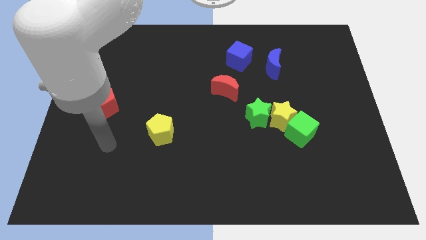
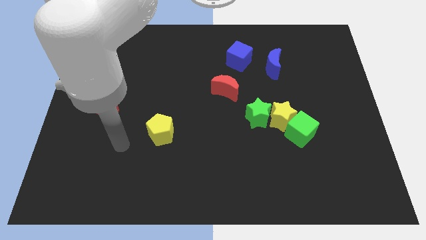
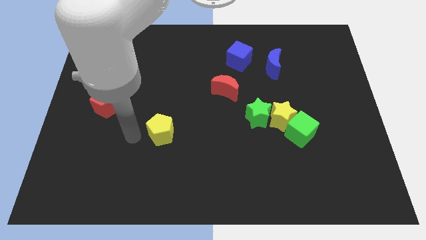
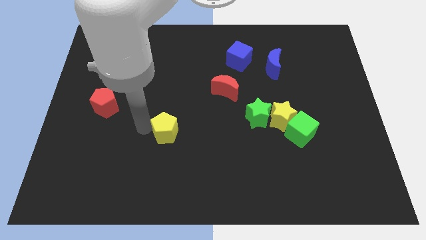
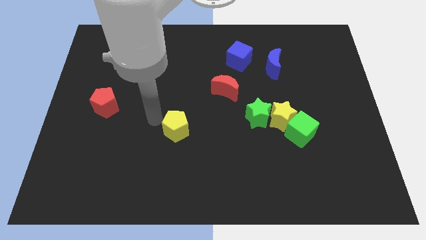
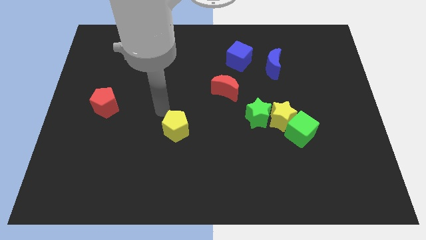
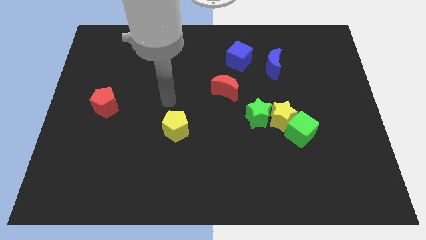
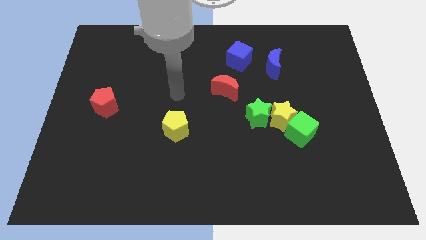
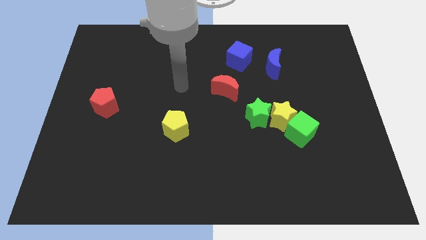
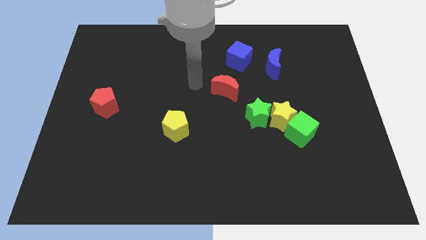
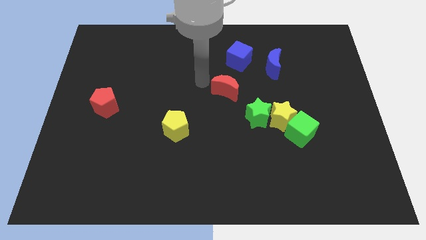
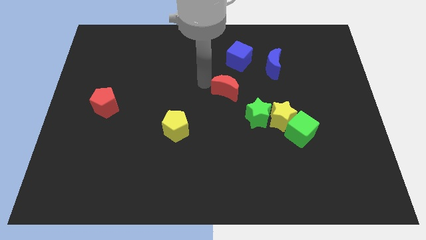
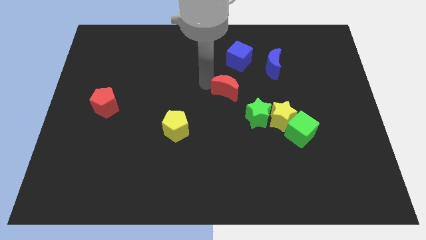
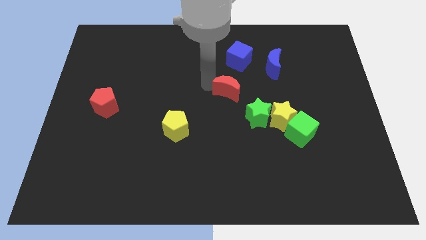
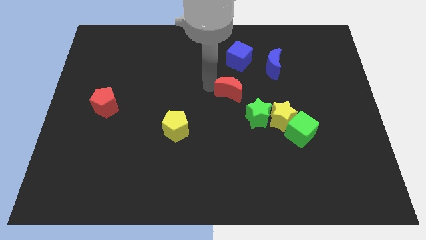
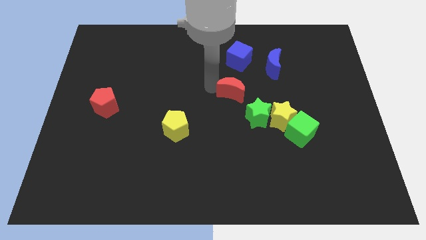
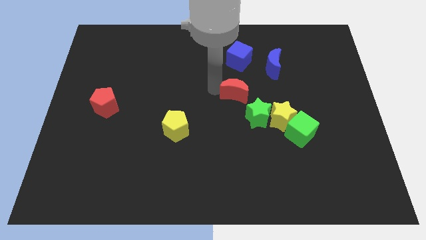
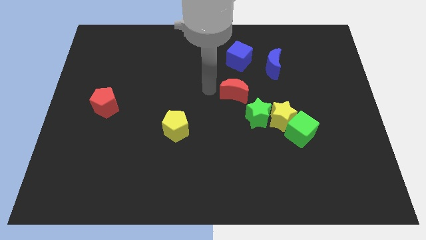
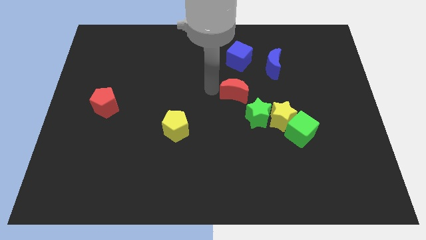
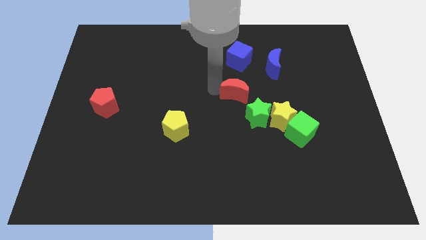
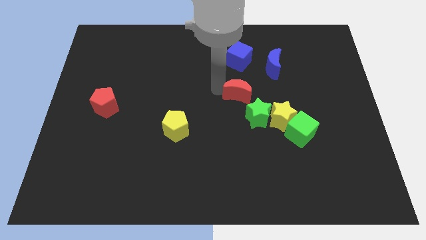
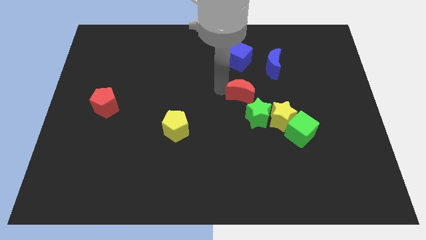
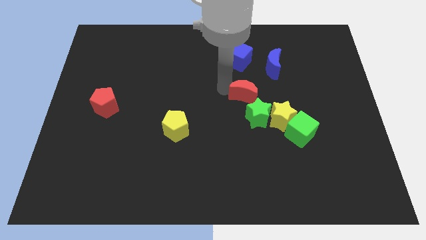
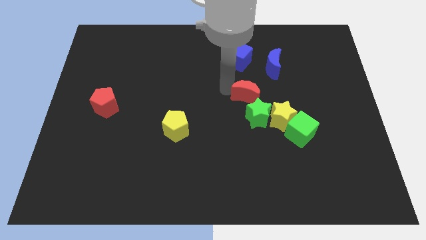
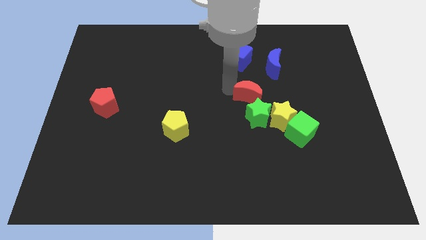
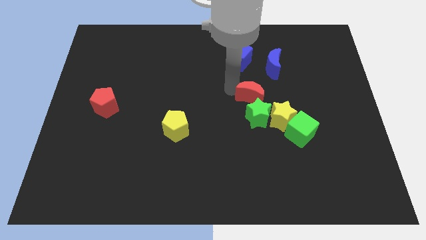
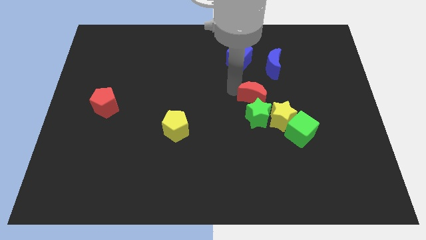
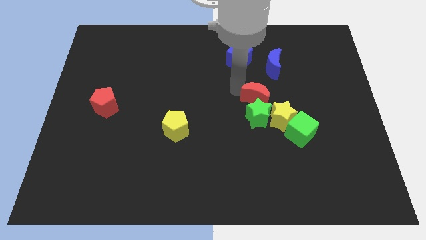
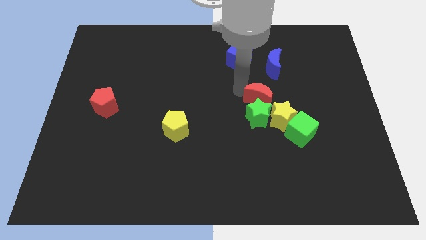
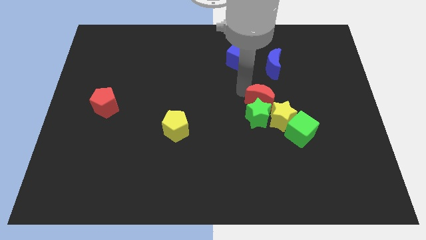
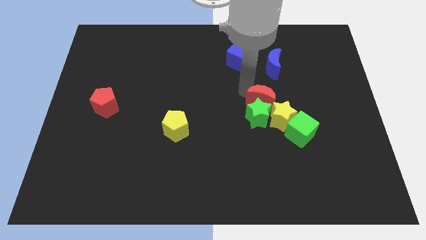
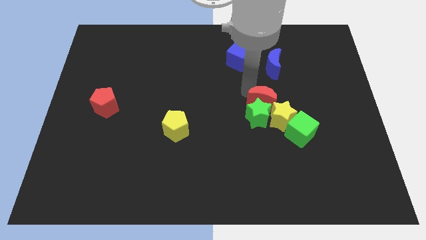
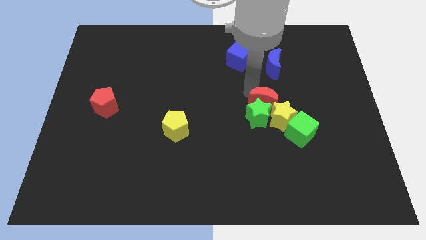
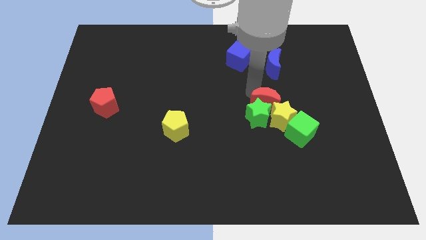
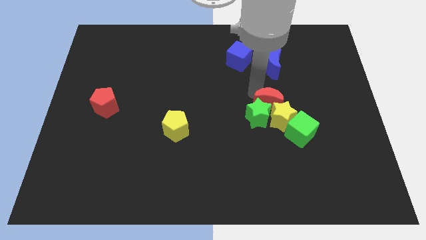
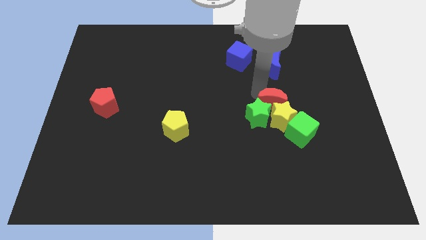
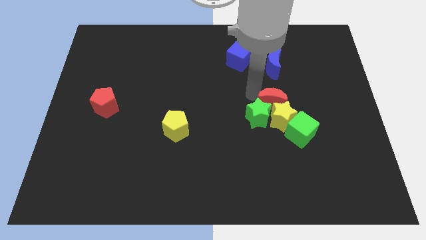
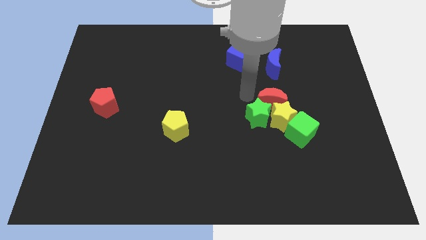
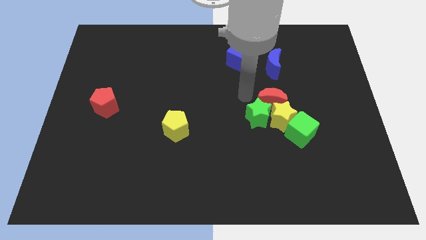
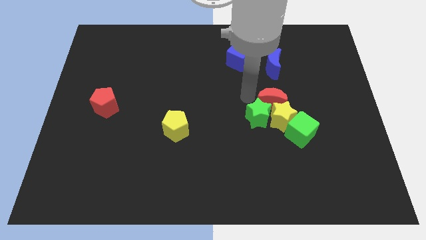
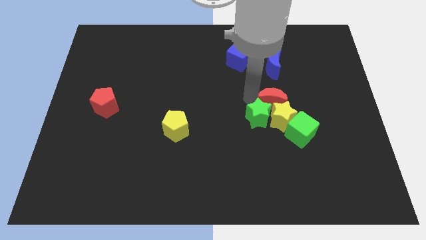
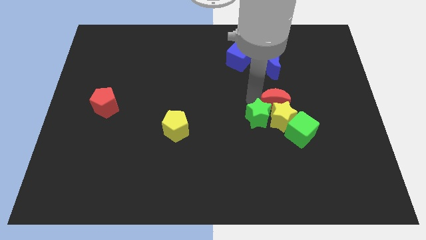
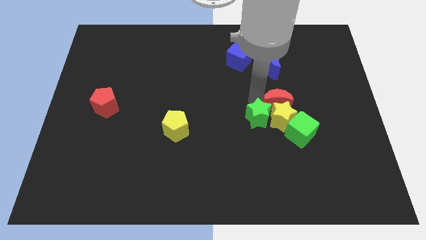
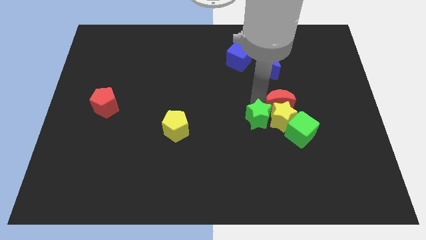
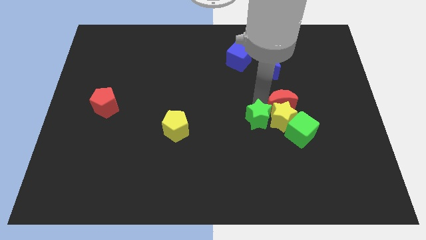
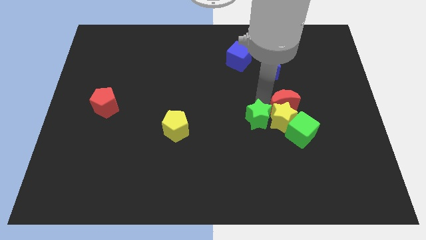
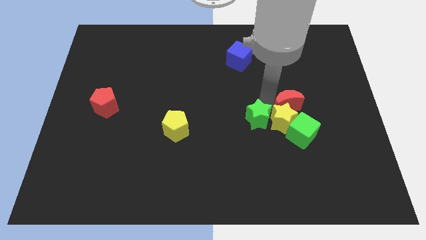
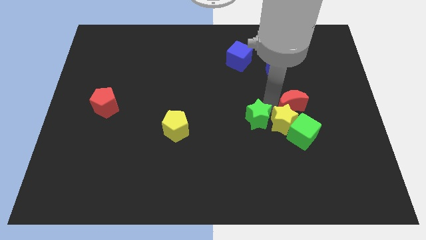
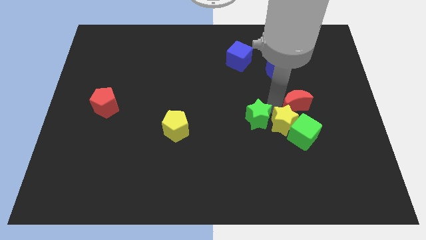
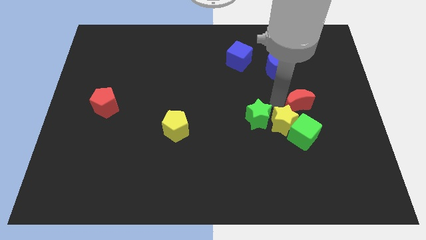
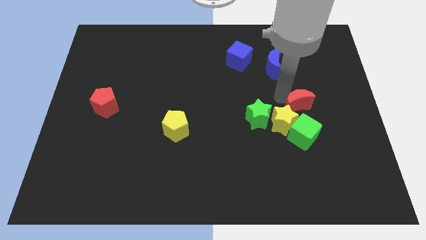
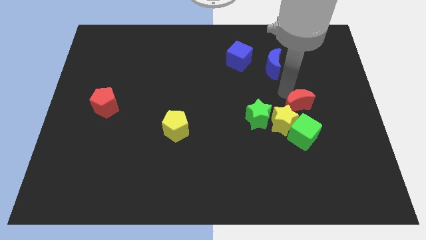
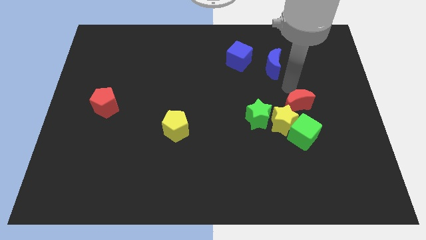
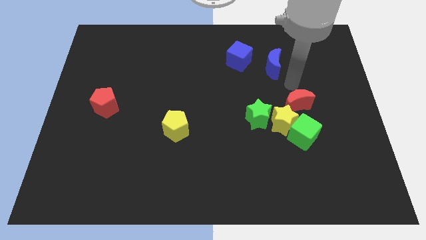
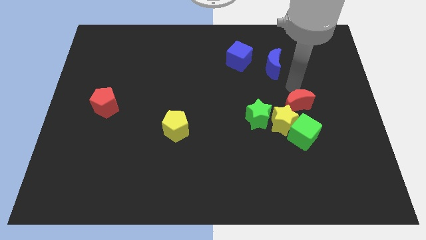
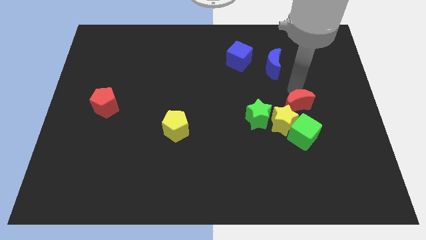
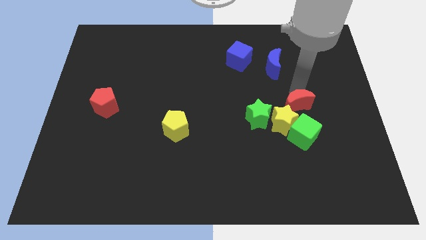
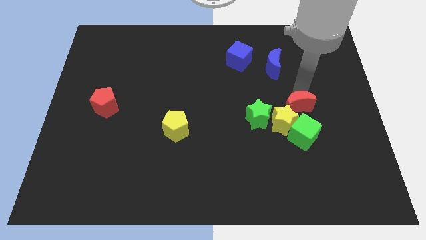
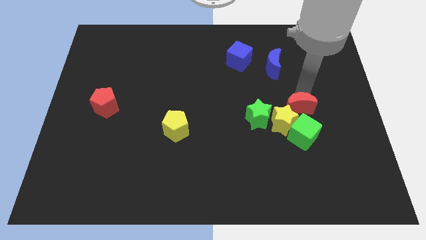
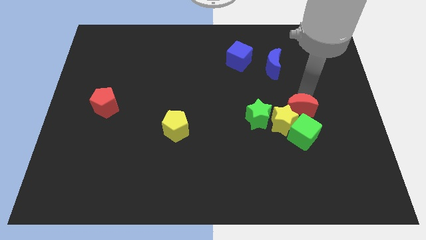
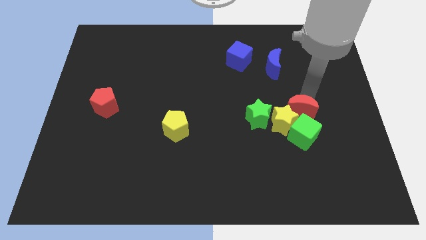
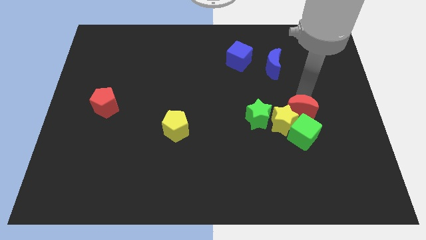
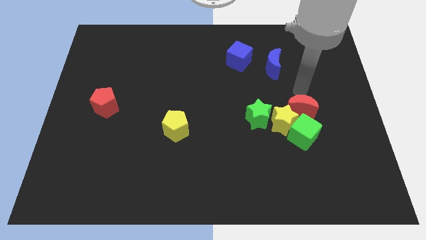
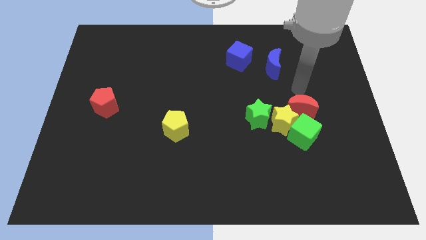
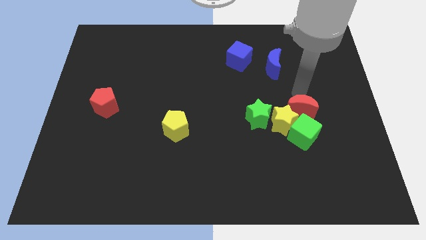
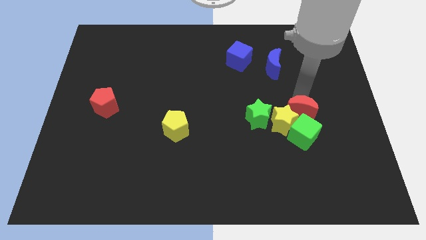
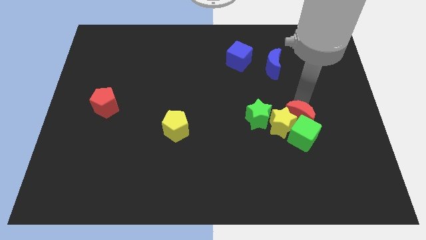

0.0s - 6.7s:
move the red moon next to the green cube

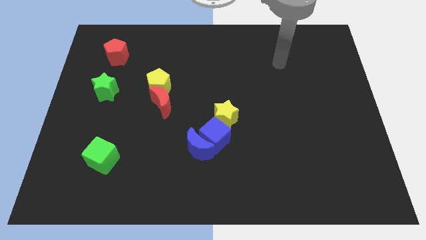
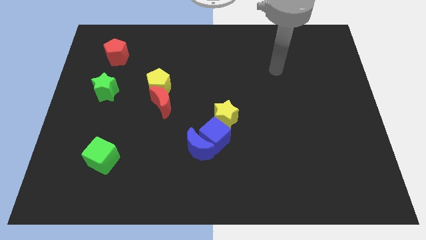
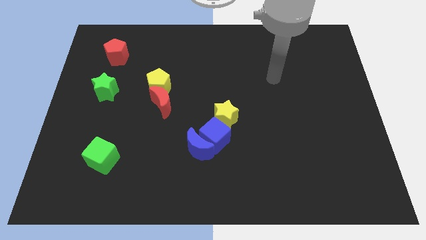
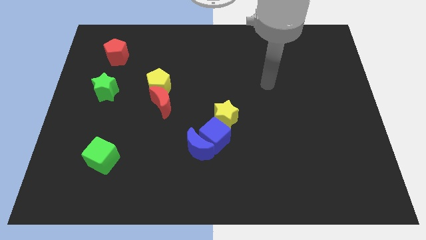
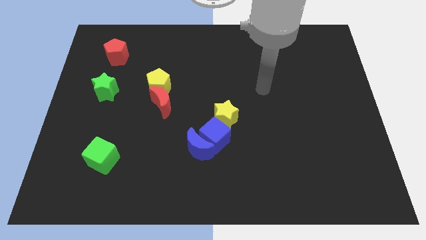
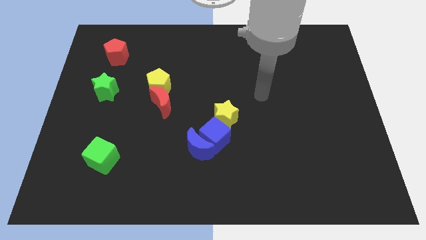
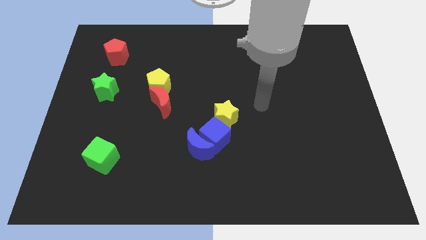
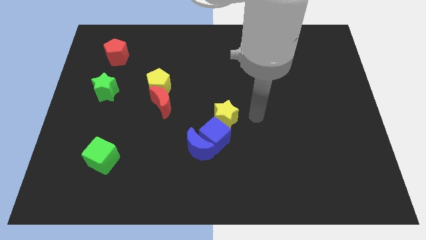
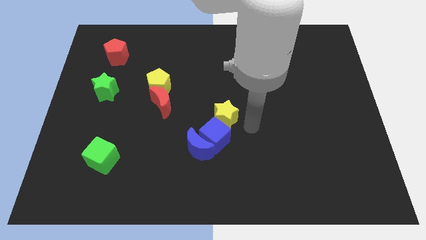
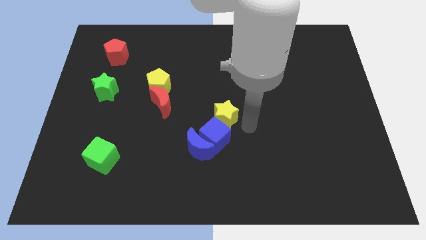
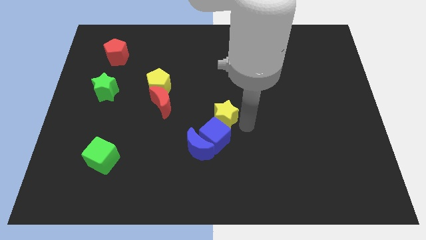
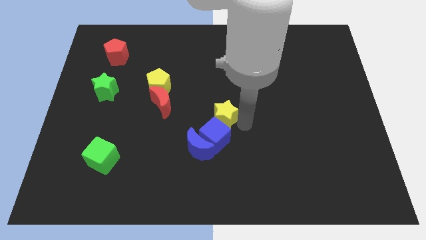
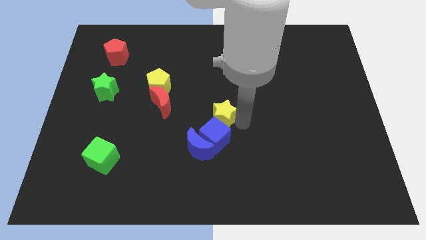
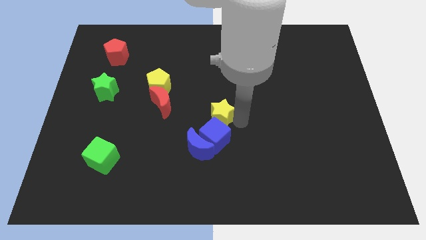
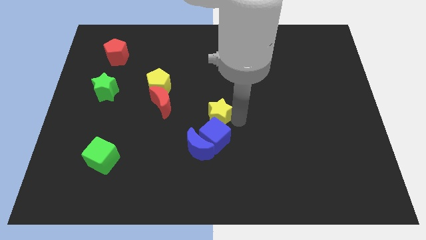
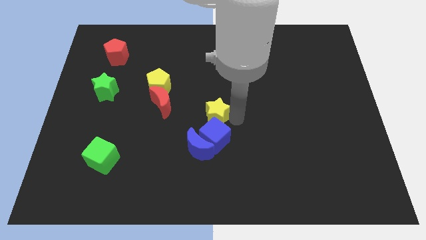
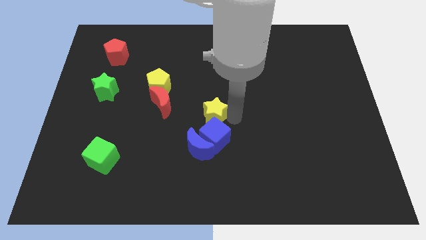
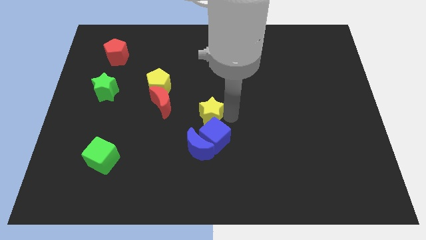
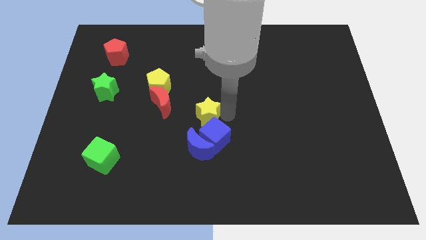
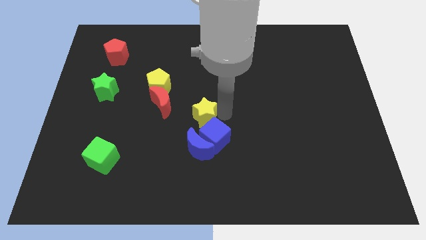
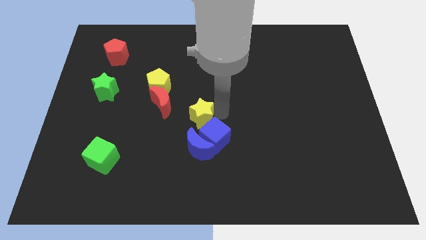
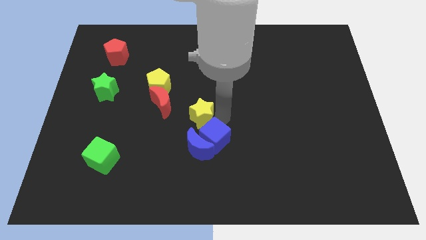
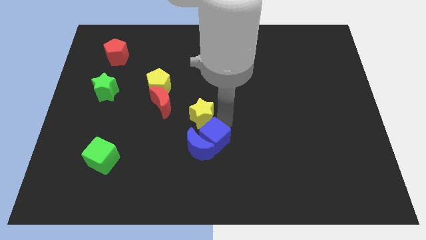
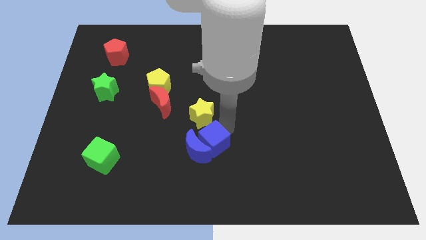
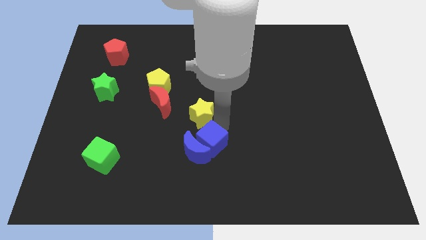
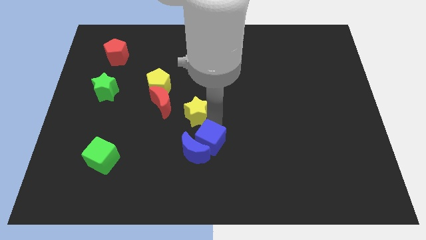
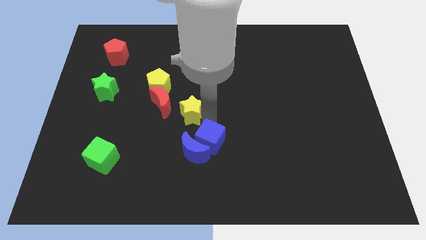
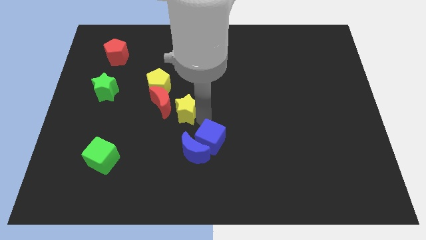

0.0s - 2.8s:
slide the yellow star close to the red moon
